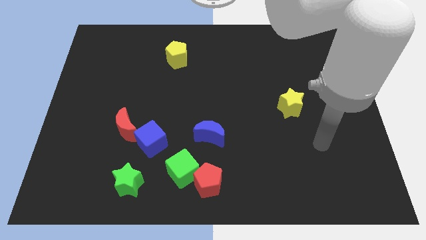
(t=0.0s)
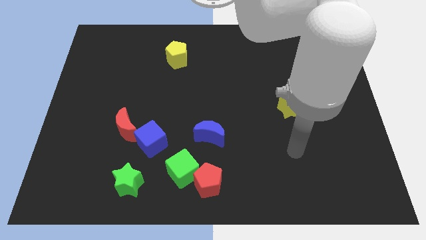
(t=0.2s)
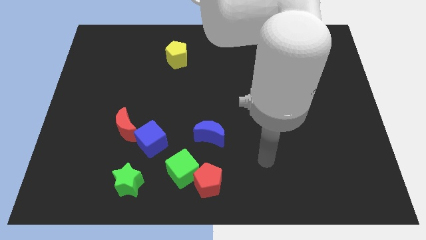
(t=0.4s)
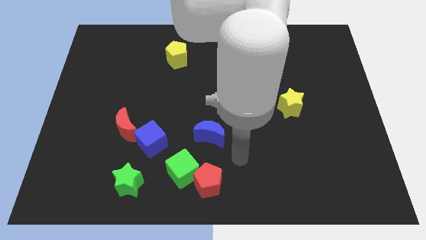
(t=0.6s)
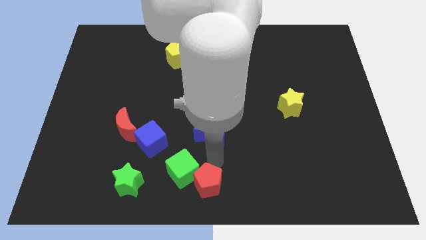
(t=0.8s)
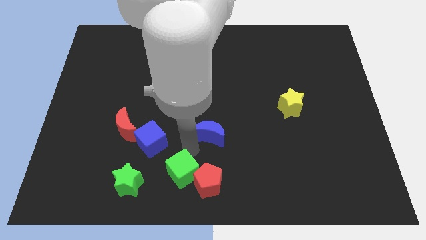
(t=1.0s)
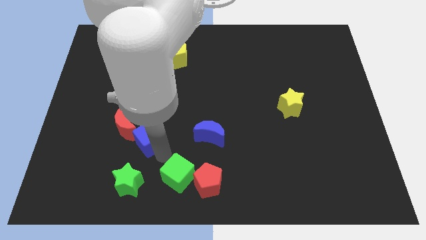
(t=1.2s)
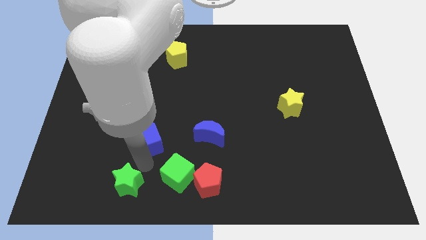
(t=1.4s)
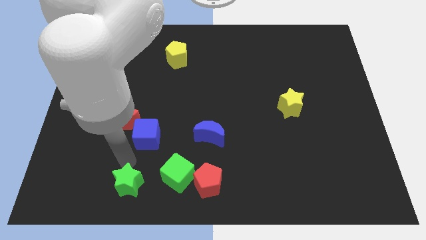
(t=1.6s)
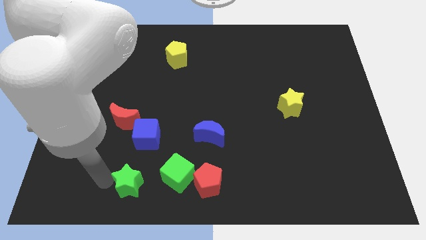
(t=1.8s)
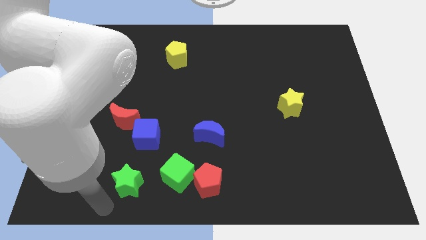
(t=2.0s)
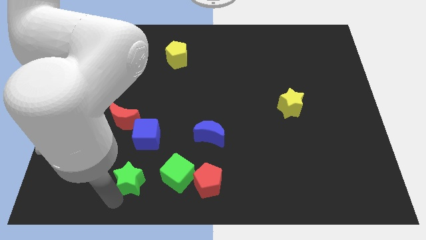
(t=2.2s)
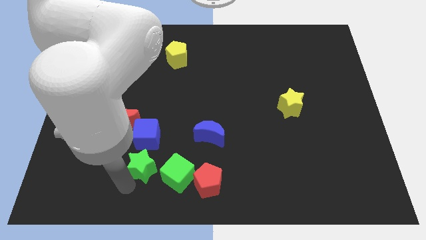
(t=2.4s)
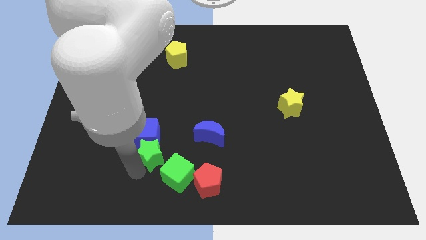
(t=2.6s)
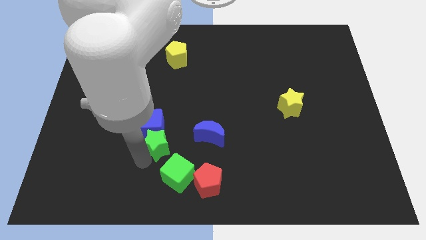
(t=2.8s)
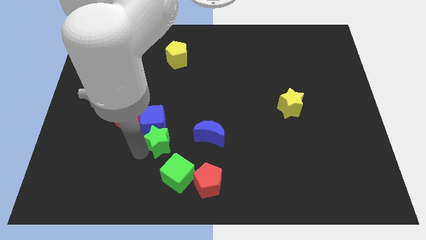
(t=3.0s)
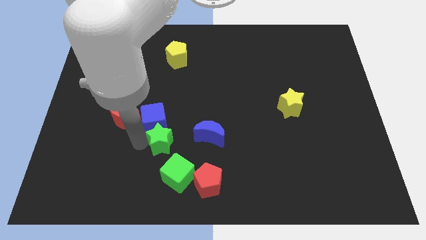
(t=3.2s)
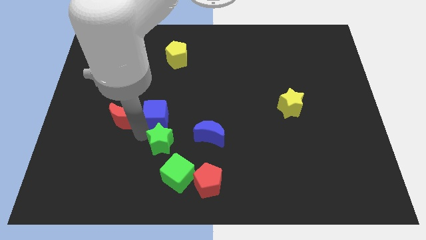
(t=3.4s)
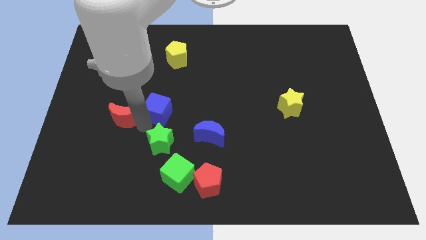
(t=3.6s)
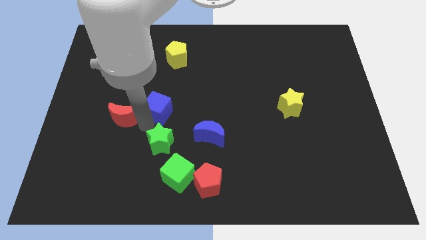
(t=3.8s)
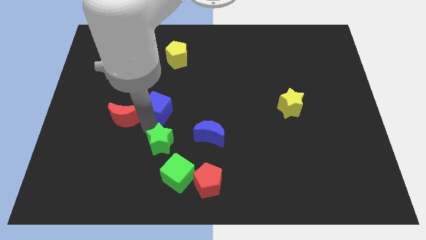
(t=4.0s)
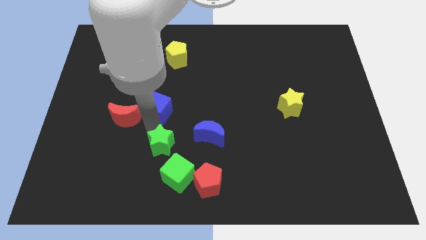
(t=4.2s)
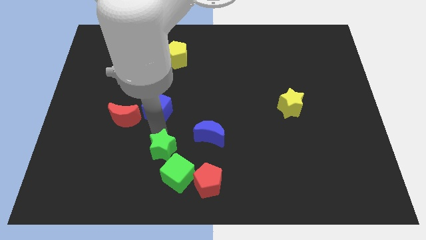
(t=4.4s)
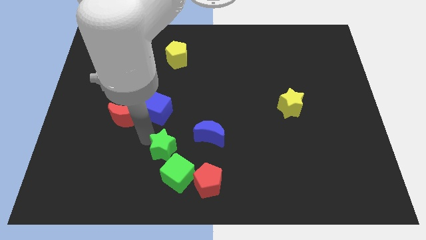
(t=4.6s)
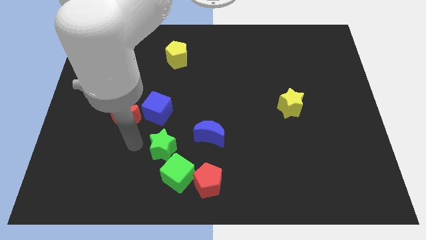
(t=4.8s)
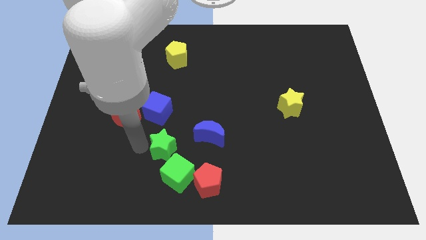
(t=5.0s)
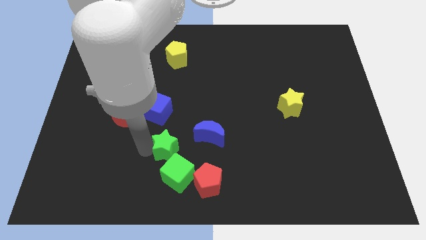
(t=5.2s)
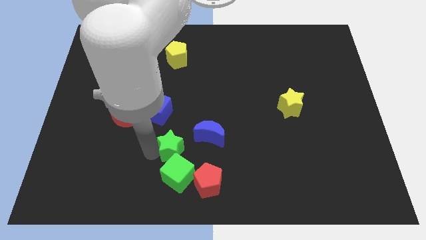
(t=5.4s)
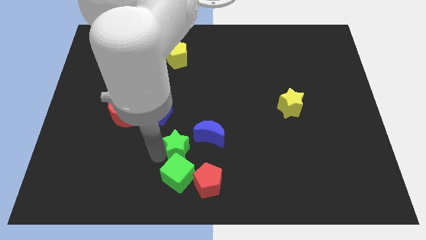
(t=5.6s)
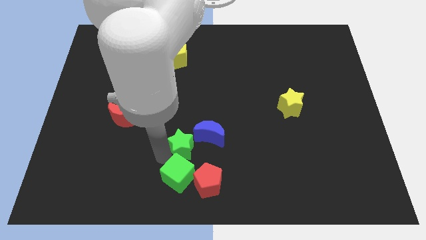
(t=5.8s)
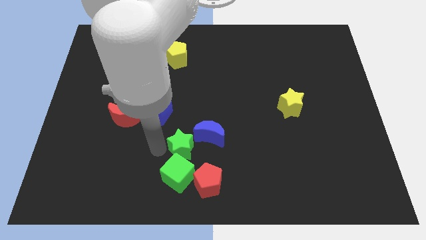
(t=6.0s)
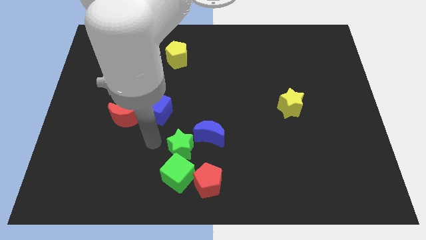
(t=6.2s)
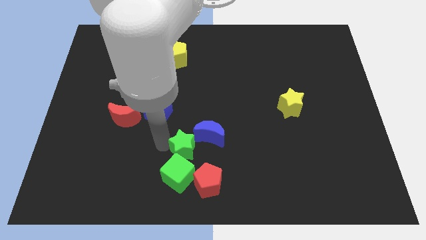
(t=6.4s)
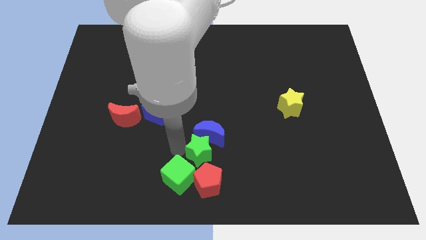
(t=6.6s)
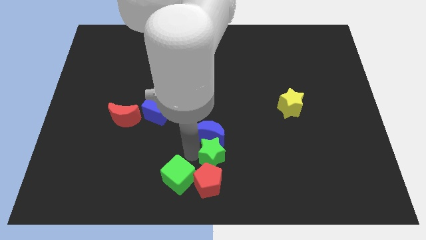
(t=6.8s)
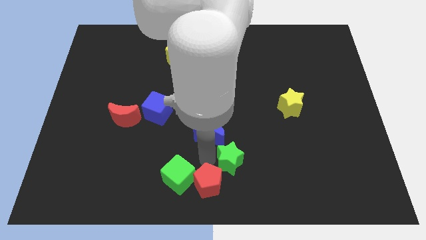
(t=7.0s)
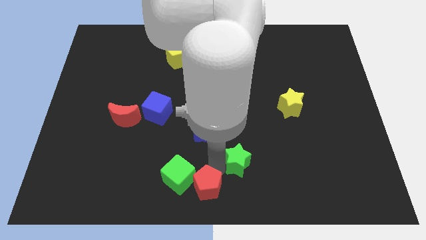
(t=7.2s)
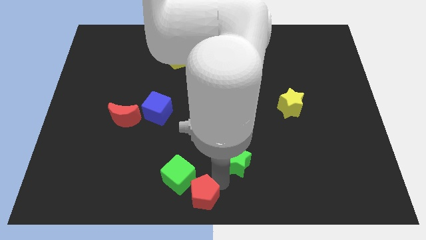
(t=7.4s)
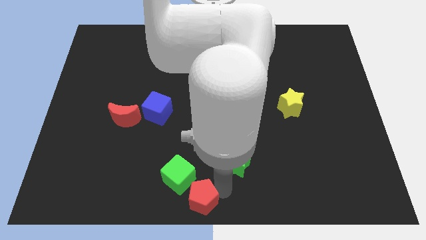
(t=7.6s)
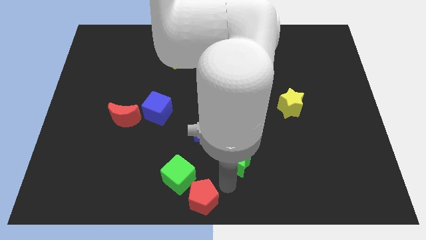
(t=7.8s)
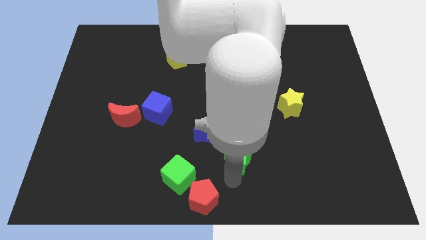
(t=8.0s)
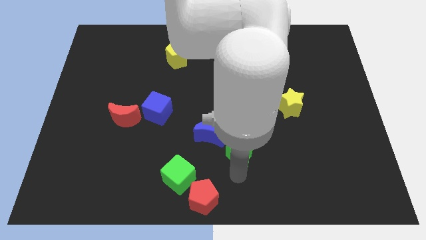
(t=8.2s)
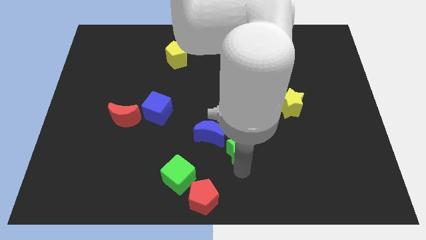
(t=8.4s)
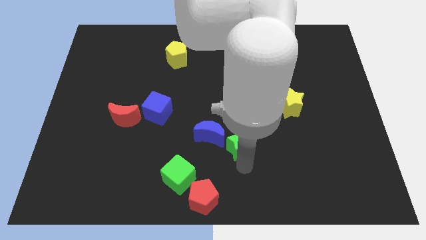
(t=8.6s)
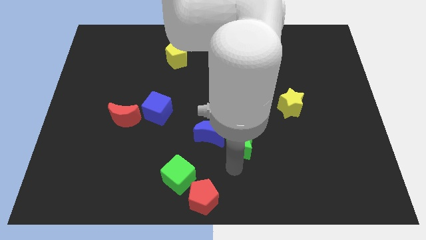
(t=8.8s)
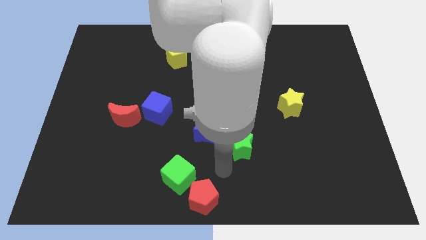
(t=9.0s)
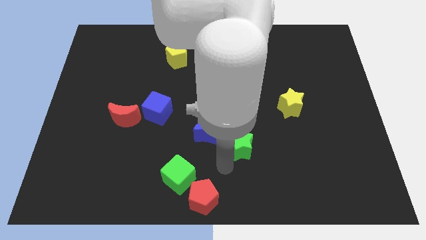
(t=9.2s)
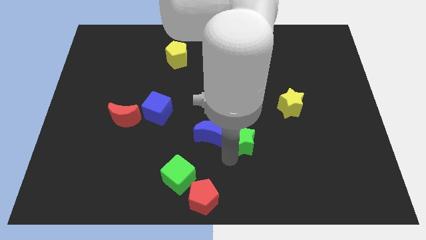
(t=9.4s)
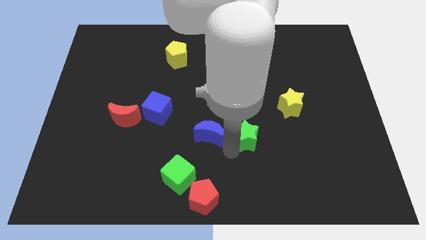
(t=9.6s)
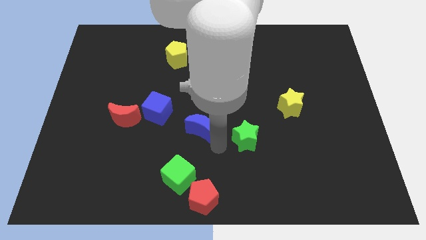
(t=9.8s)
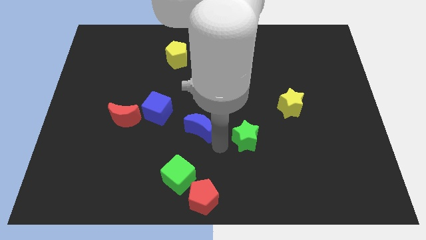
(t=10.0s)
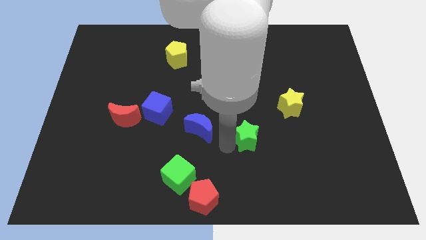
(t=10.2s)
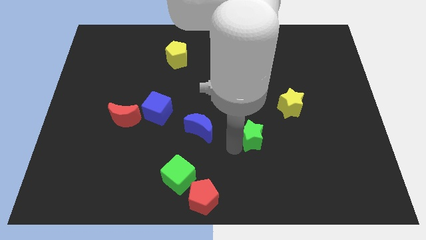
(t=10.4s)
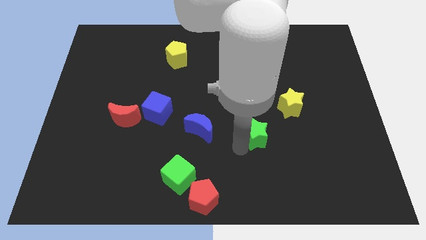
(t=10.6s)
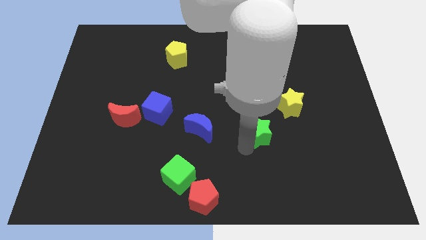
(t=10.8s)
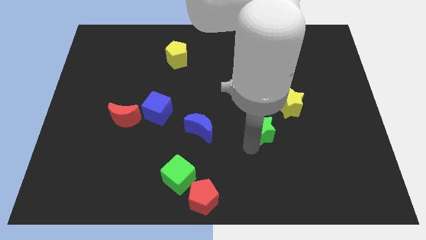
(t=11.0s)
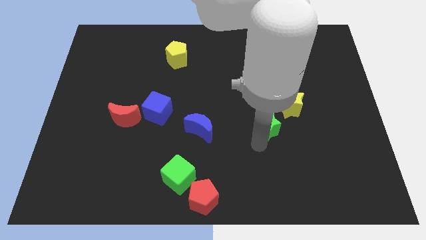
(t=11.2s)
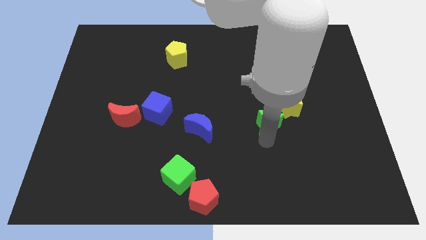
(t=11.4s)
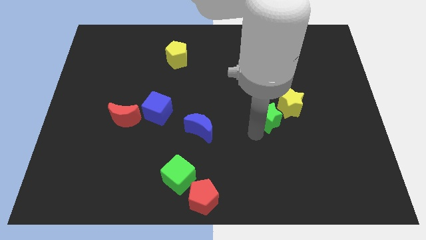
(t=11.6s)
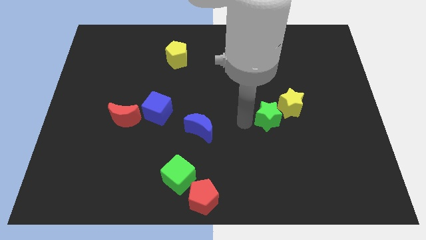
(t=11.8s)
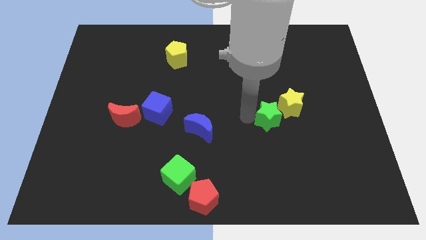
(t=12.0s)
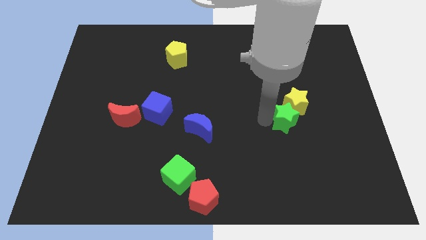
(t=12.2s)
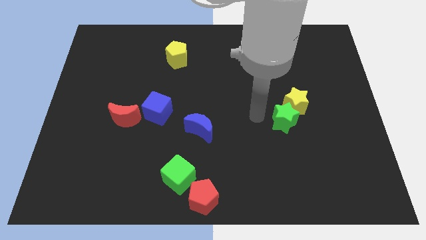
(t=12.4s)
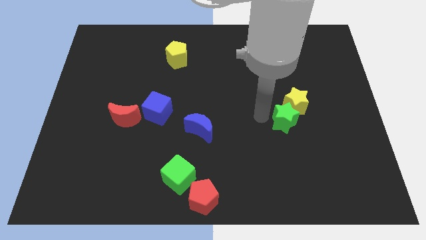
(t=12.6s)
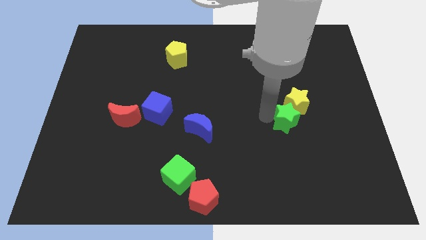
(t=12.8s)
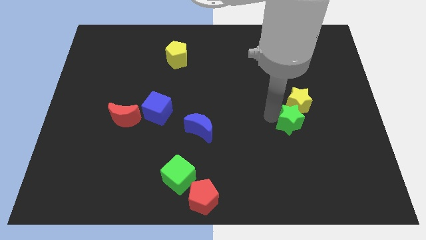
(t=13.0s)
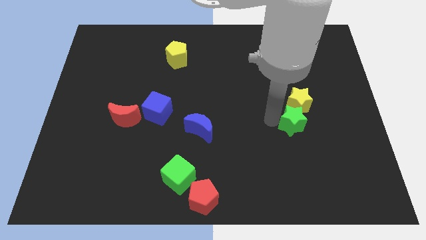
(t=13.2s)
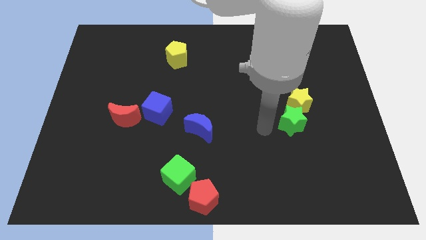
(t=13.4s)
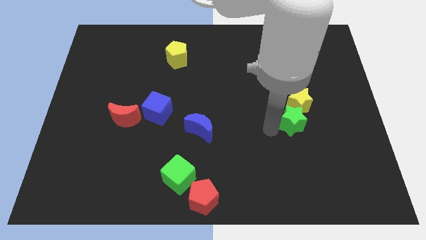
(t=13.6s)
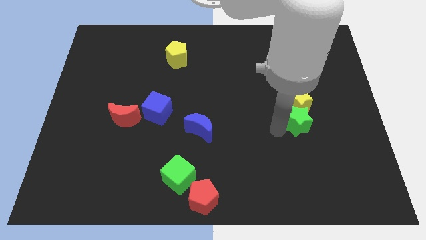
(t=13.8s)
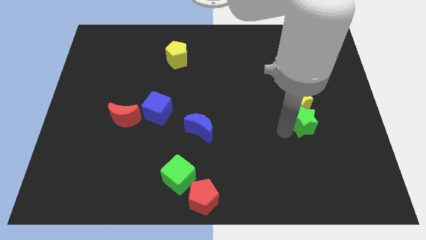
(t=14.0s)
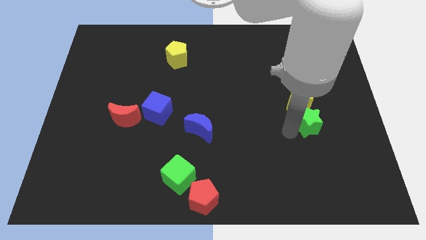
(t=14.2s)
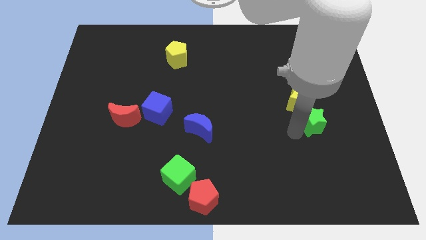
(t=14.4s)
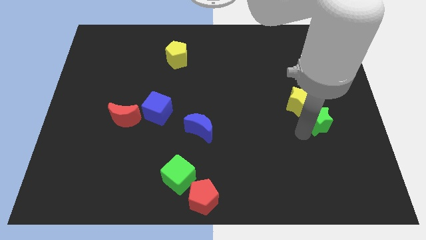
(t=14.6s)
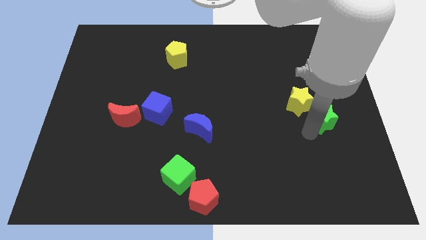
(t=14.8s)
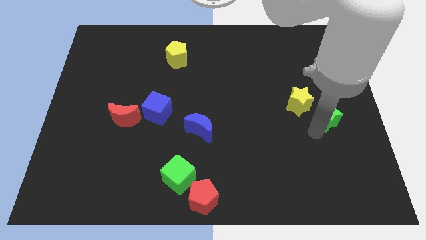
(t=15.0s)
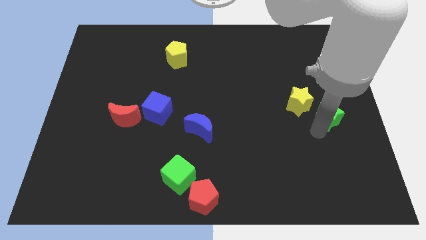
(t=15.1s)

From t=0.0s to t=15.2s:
put the green star to the center right
